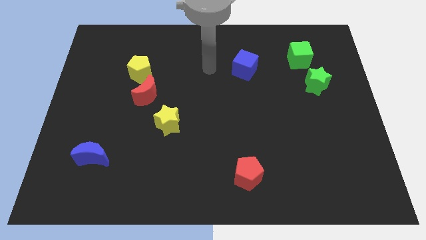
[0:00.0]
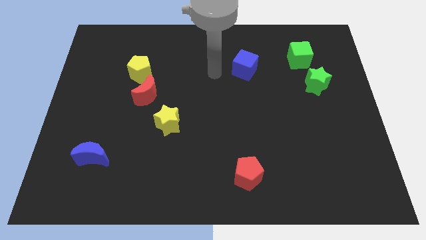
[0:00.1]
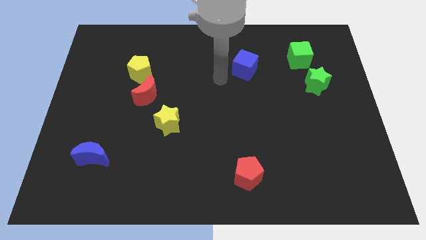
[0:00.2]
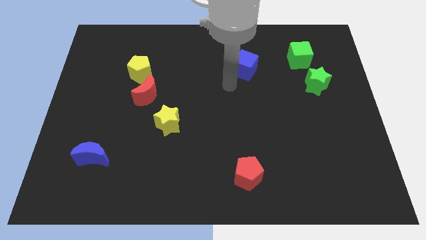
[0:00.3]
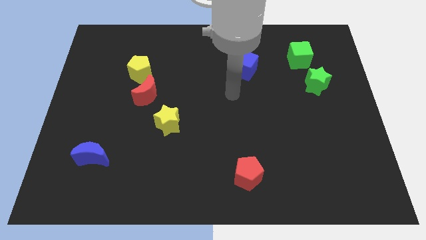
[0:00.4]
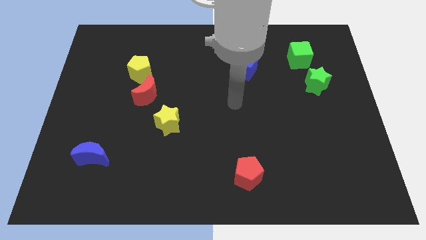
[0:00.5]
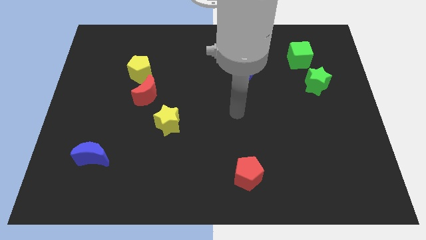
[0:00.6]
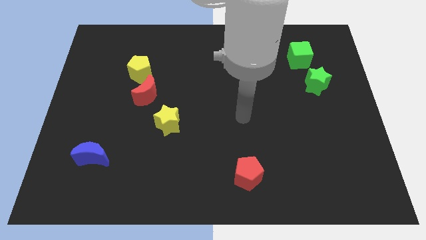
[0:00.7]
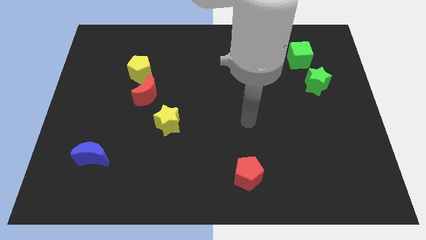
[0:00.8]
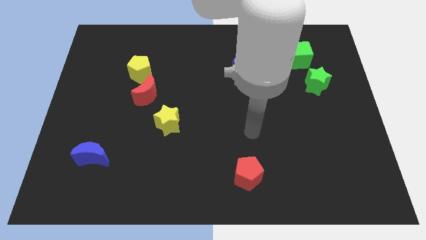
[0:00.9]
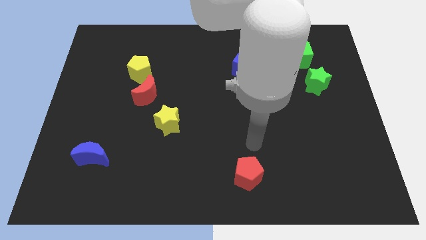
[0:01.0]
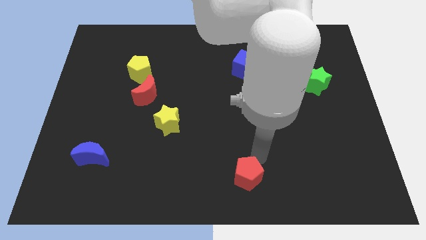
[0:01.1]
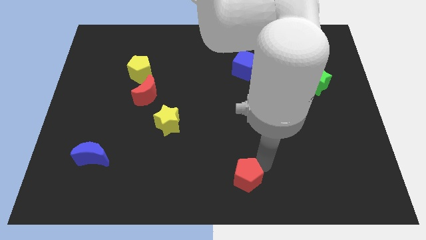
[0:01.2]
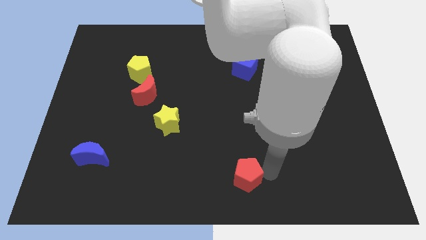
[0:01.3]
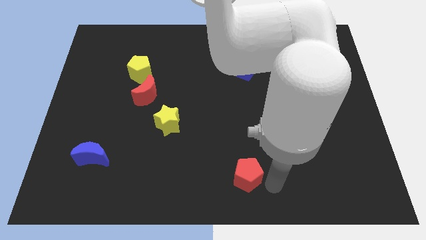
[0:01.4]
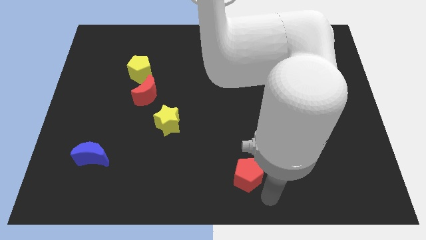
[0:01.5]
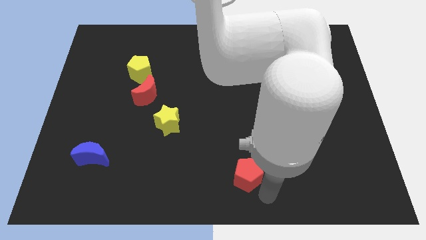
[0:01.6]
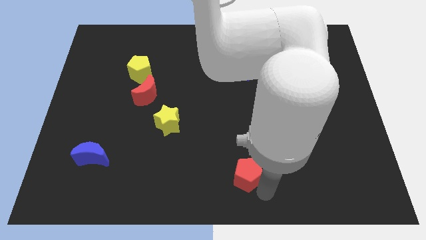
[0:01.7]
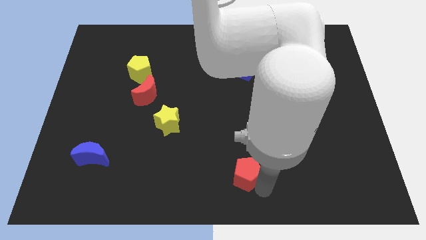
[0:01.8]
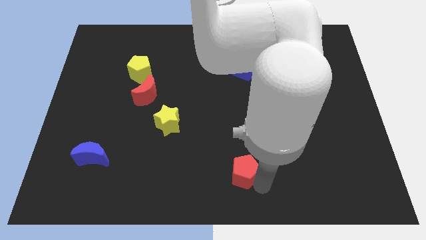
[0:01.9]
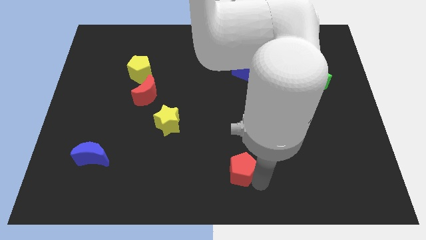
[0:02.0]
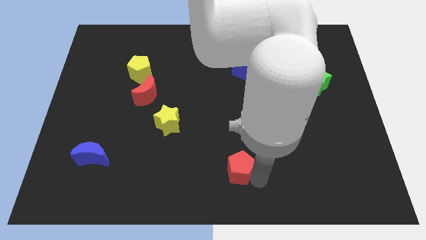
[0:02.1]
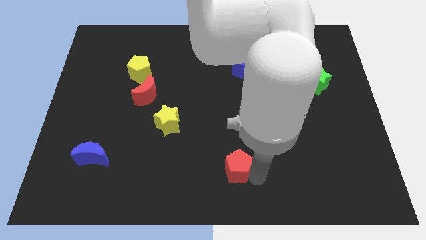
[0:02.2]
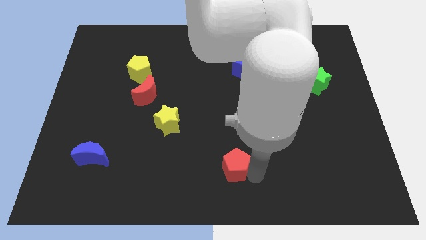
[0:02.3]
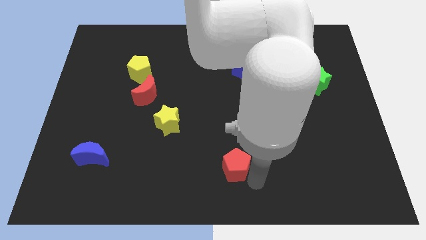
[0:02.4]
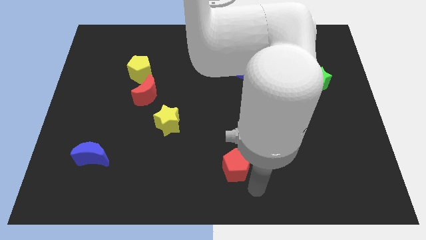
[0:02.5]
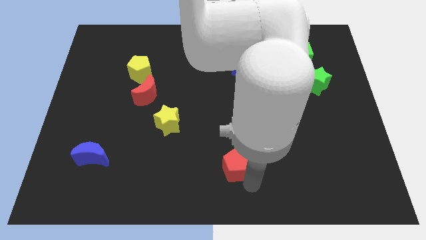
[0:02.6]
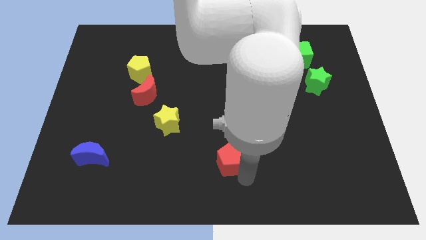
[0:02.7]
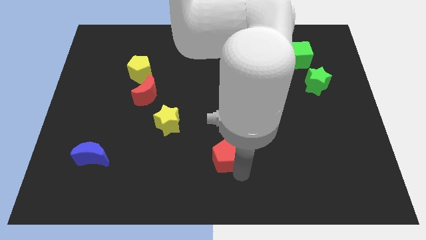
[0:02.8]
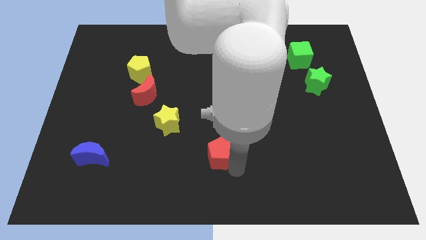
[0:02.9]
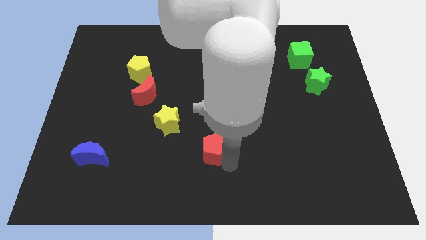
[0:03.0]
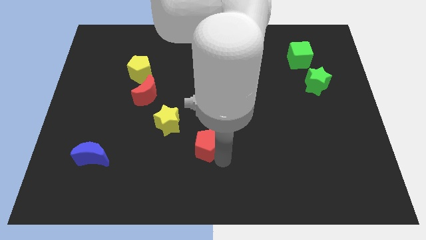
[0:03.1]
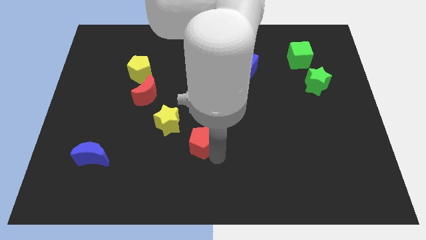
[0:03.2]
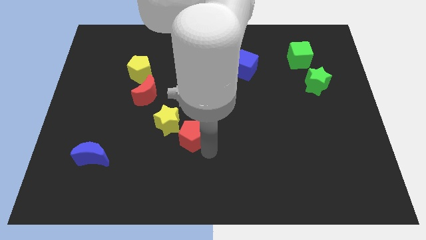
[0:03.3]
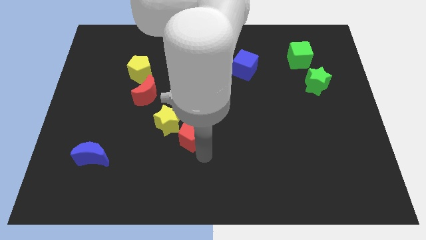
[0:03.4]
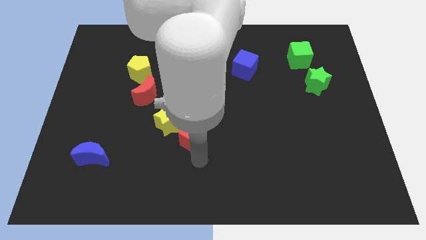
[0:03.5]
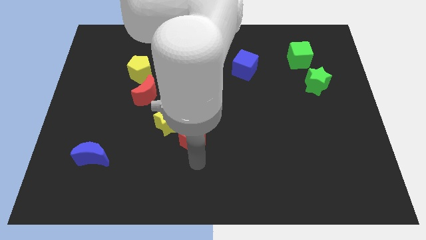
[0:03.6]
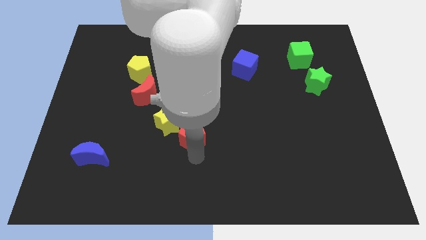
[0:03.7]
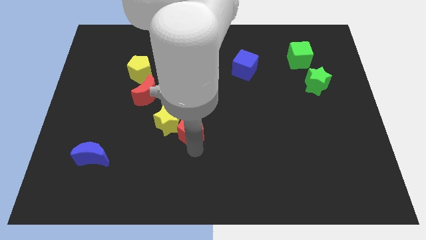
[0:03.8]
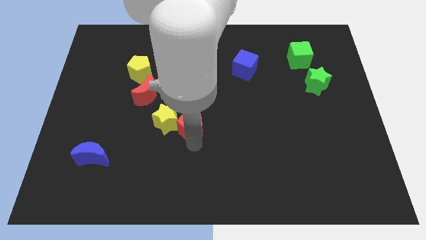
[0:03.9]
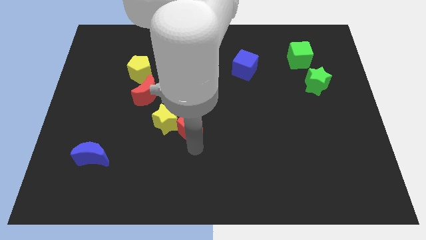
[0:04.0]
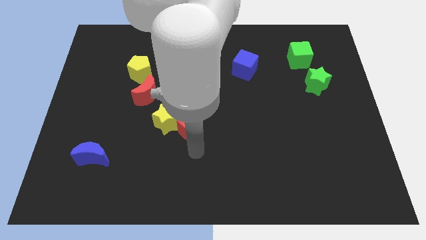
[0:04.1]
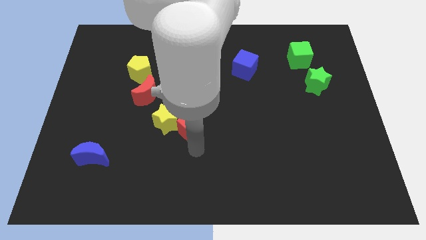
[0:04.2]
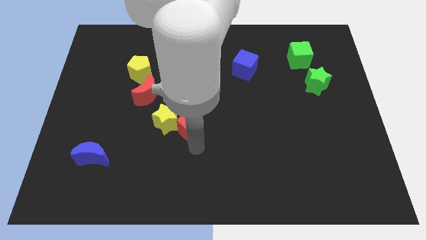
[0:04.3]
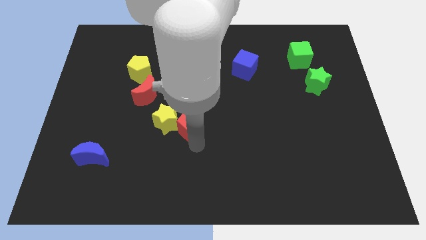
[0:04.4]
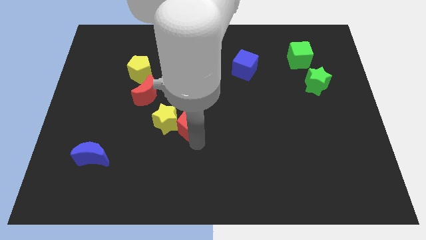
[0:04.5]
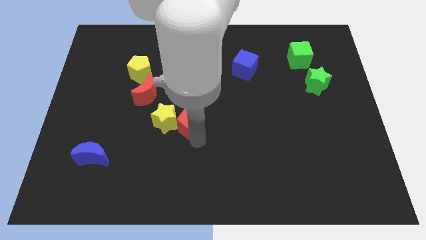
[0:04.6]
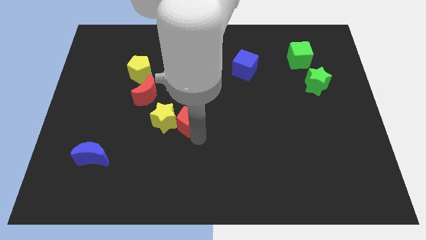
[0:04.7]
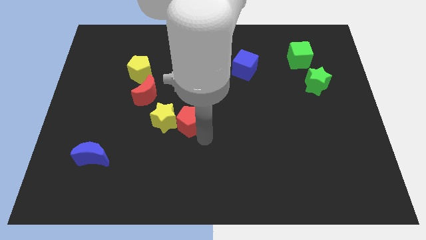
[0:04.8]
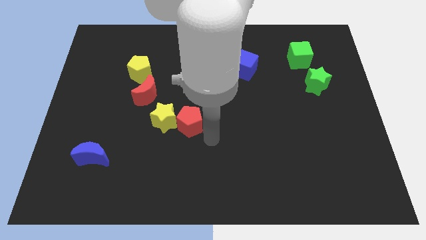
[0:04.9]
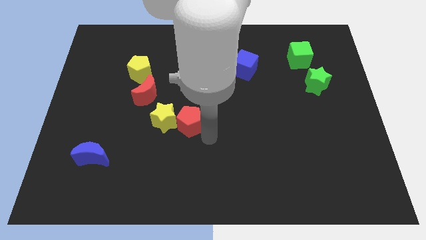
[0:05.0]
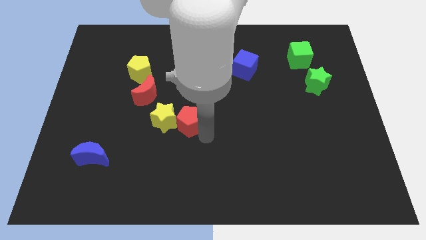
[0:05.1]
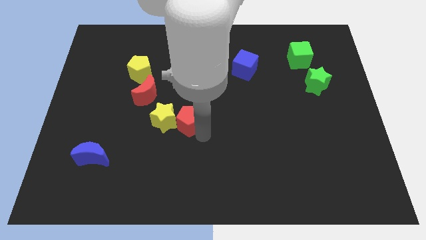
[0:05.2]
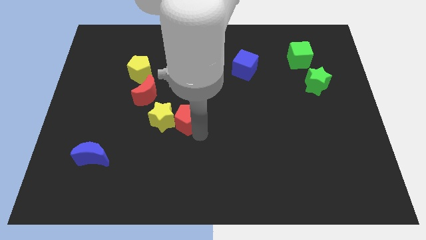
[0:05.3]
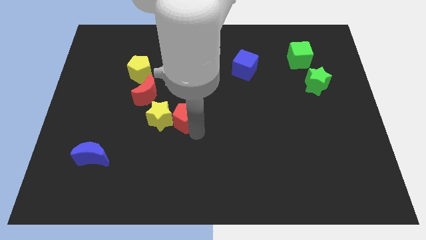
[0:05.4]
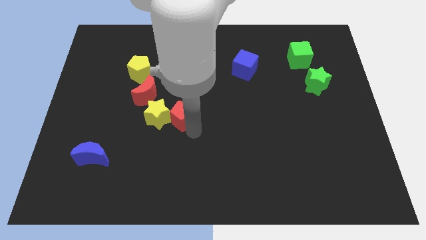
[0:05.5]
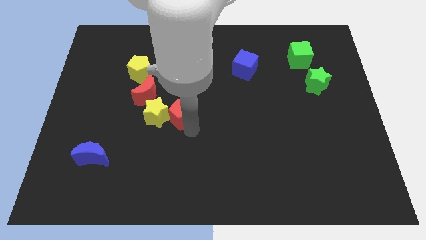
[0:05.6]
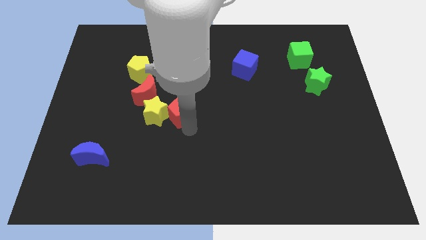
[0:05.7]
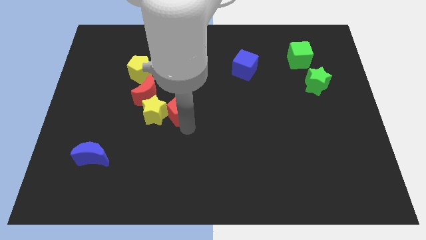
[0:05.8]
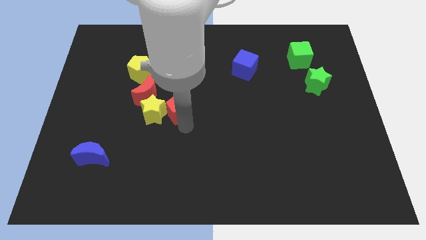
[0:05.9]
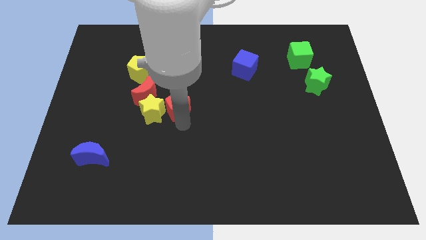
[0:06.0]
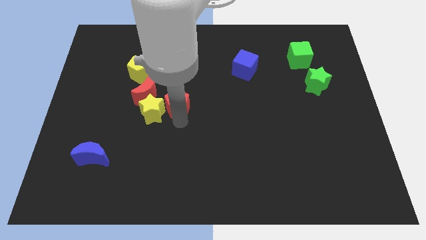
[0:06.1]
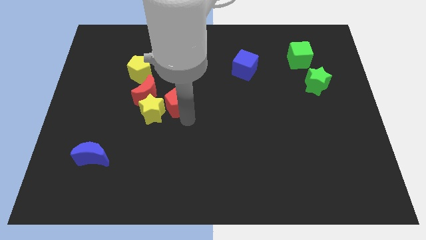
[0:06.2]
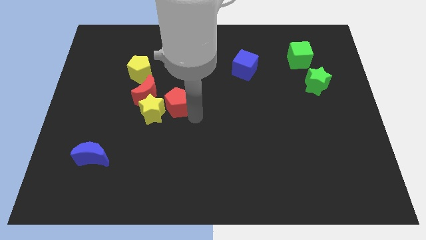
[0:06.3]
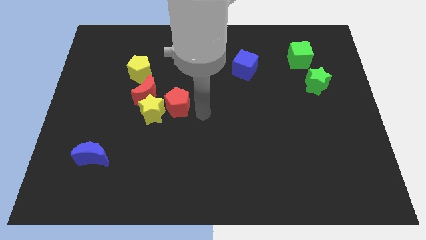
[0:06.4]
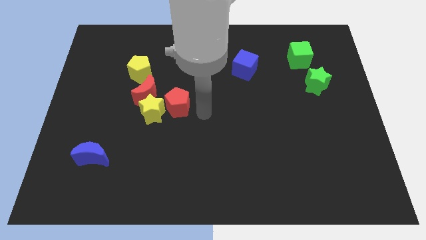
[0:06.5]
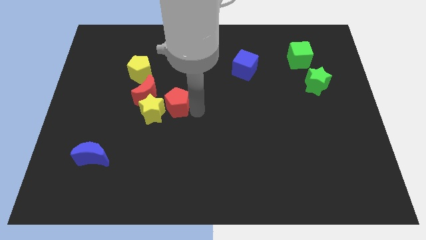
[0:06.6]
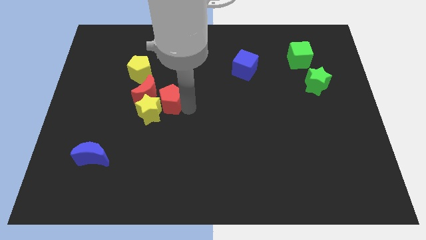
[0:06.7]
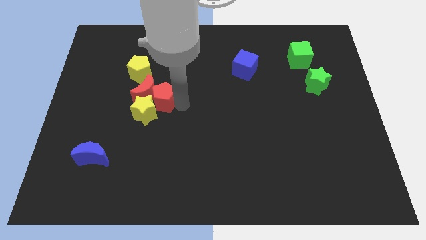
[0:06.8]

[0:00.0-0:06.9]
slide the red pentagon close to the red moon

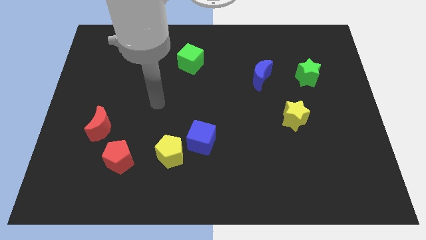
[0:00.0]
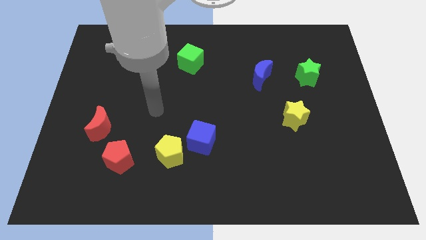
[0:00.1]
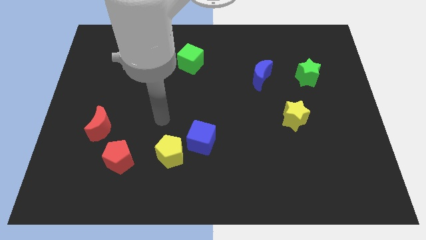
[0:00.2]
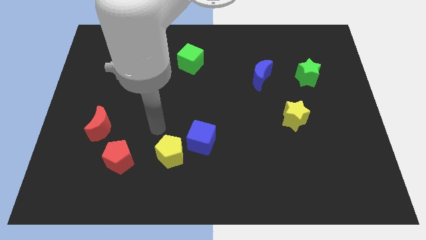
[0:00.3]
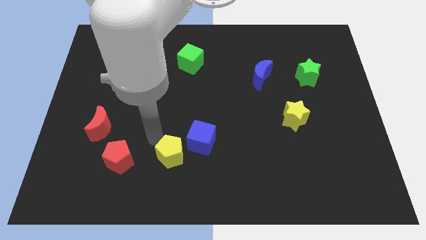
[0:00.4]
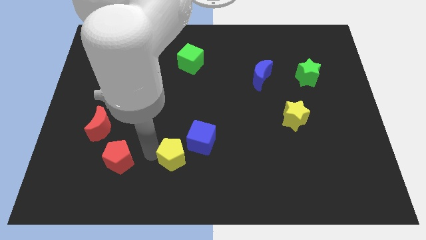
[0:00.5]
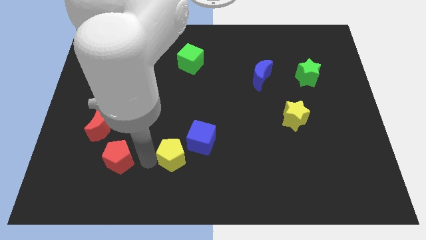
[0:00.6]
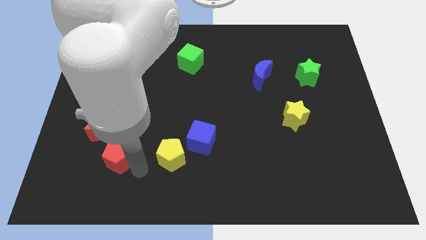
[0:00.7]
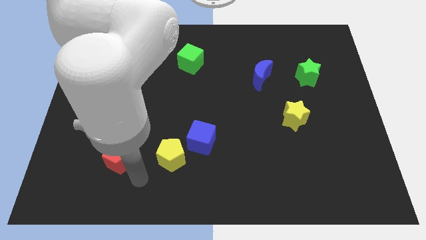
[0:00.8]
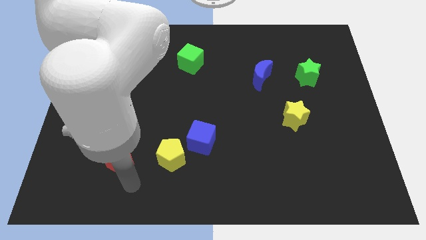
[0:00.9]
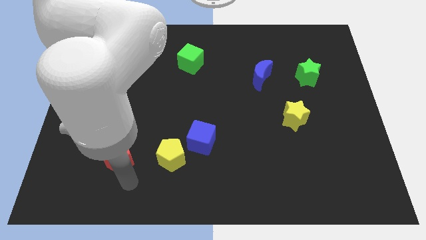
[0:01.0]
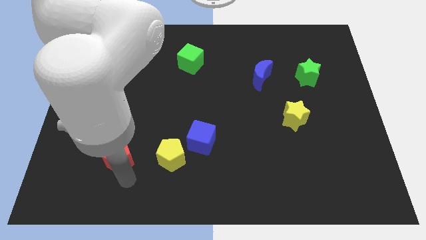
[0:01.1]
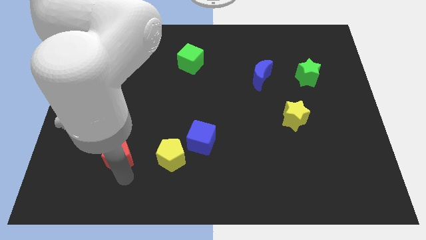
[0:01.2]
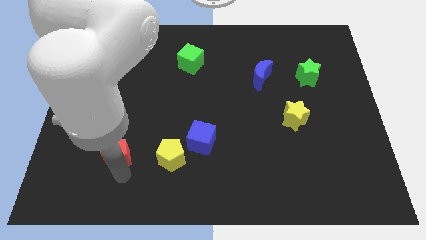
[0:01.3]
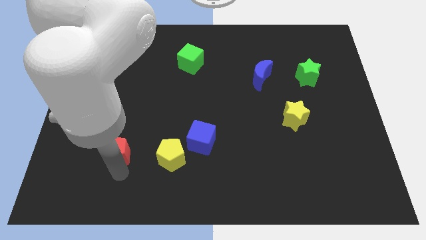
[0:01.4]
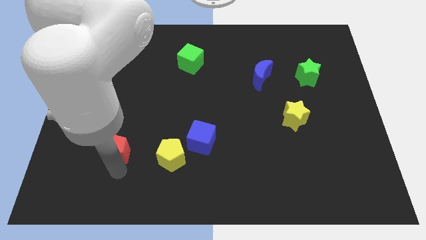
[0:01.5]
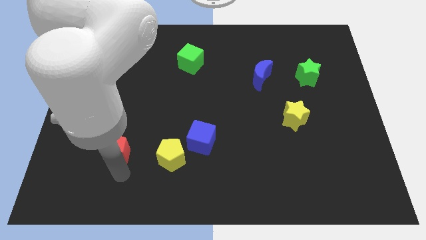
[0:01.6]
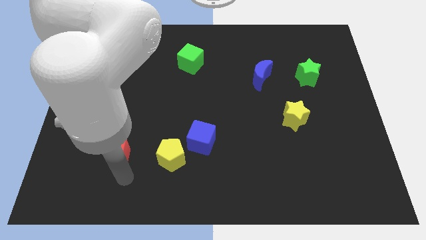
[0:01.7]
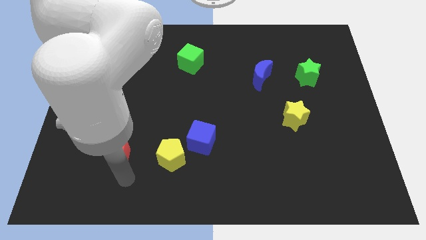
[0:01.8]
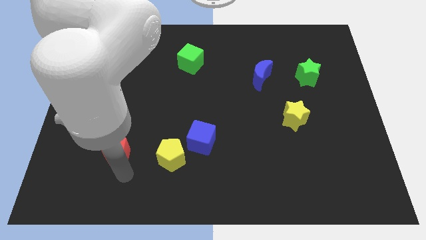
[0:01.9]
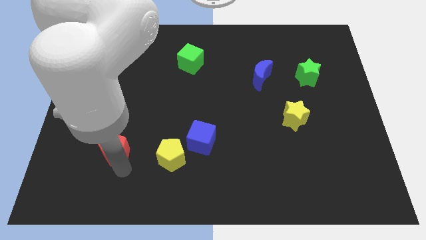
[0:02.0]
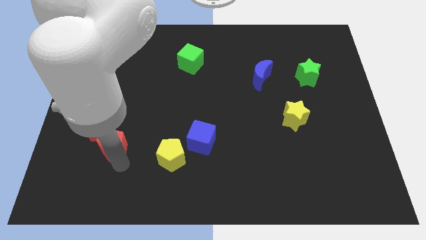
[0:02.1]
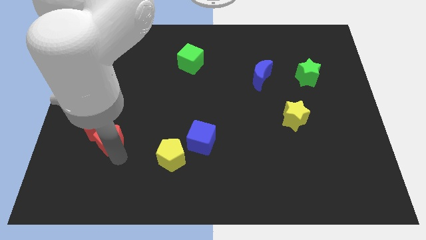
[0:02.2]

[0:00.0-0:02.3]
push the red pentagon next to the red moon
